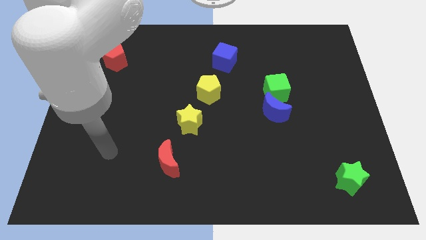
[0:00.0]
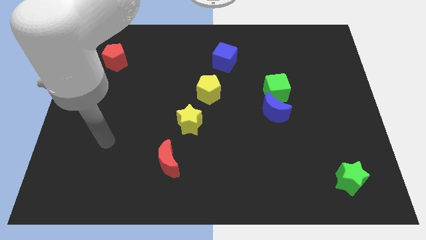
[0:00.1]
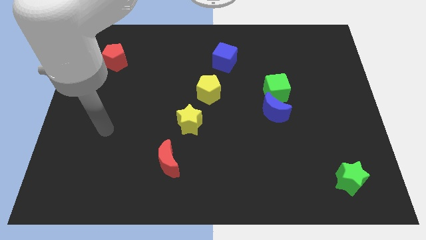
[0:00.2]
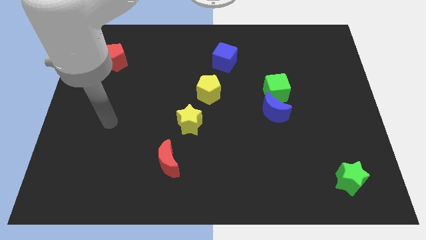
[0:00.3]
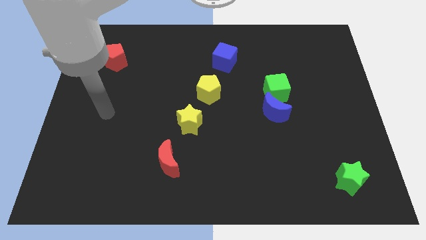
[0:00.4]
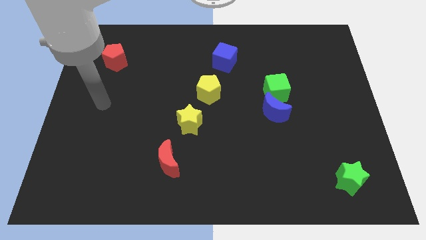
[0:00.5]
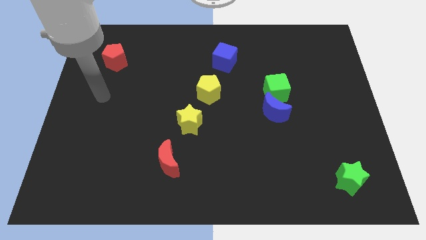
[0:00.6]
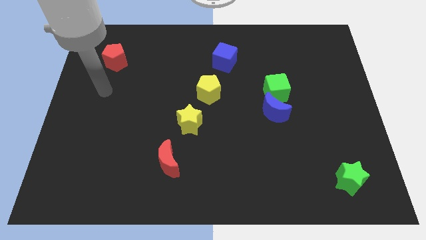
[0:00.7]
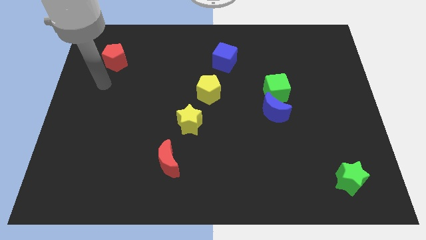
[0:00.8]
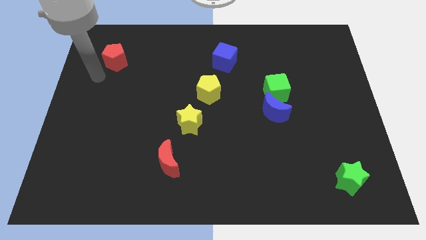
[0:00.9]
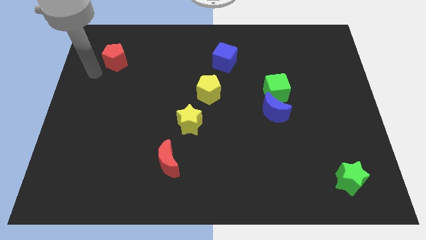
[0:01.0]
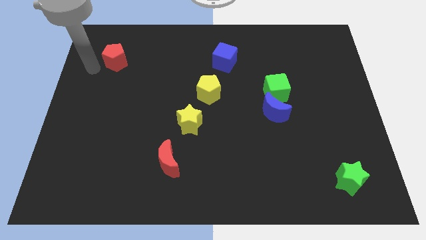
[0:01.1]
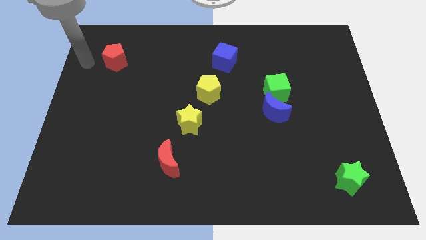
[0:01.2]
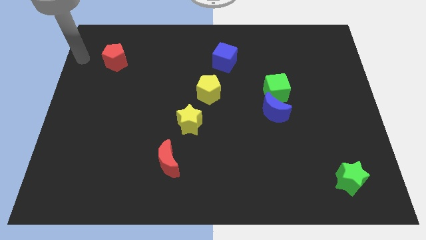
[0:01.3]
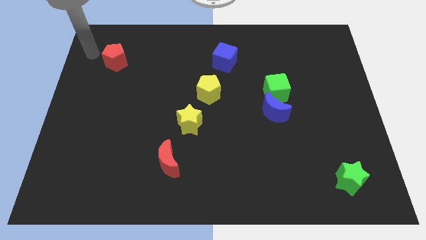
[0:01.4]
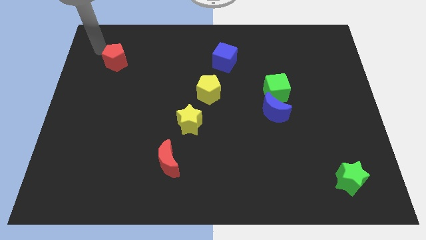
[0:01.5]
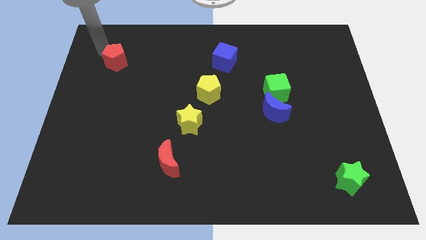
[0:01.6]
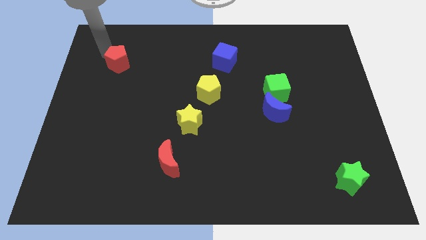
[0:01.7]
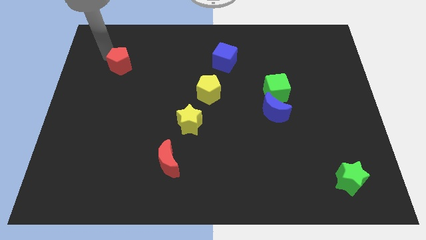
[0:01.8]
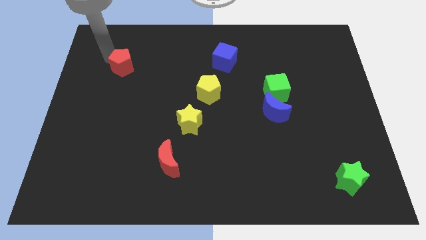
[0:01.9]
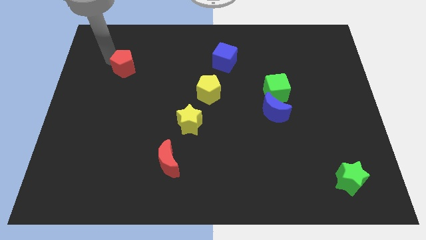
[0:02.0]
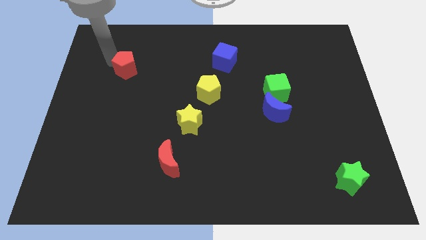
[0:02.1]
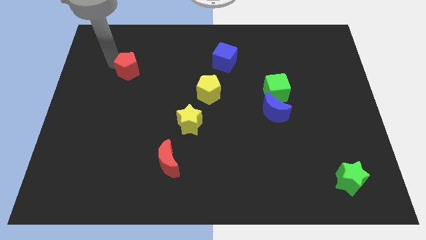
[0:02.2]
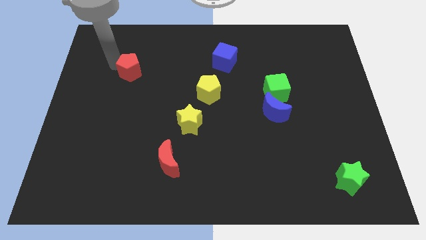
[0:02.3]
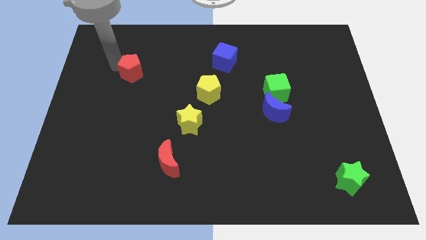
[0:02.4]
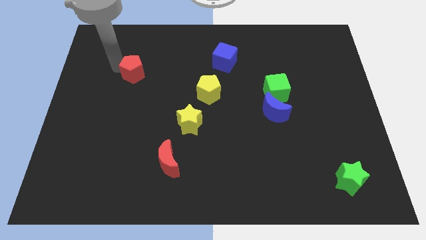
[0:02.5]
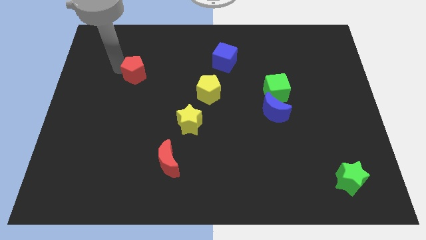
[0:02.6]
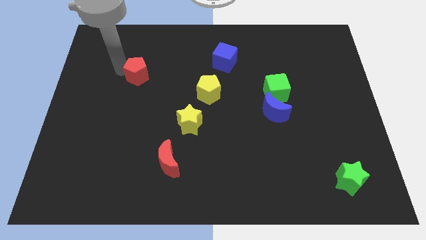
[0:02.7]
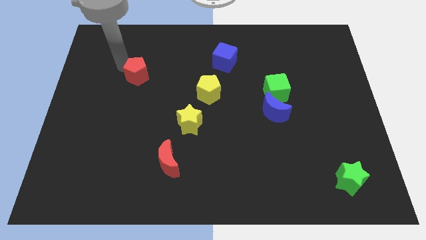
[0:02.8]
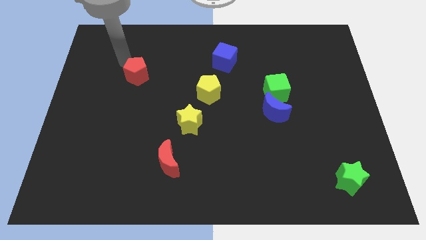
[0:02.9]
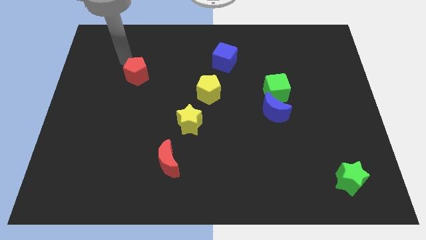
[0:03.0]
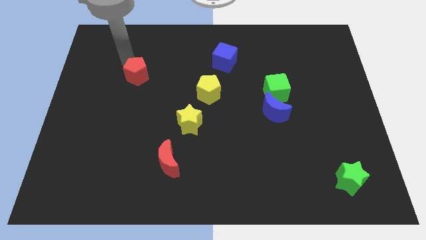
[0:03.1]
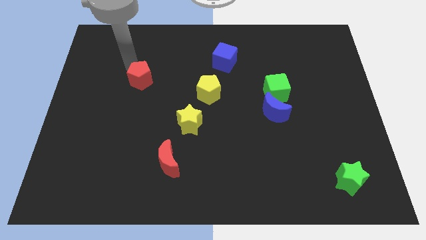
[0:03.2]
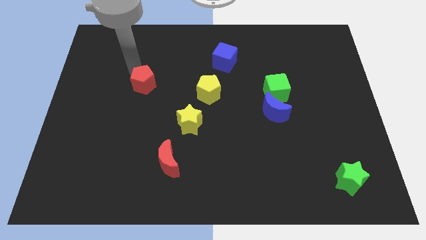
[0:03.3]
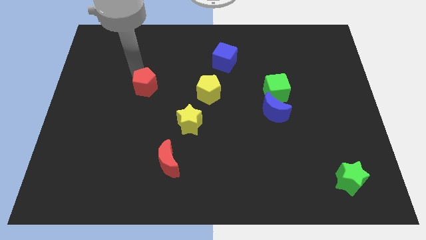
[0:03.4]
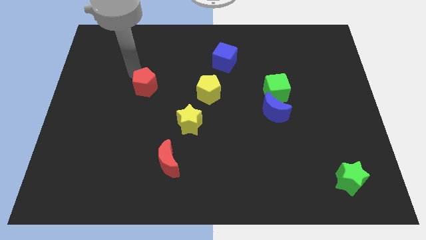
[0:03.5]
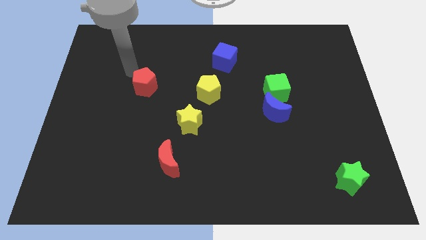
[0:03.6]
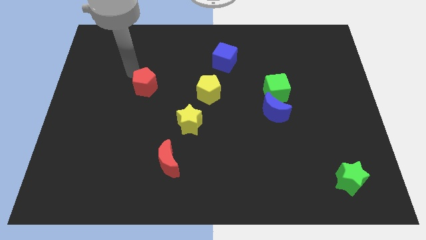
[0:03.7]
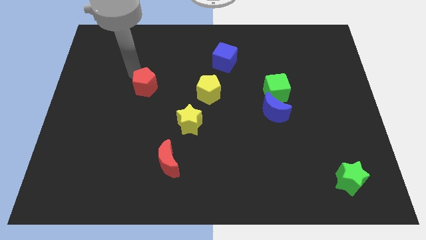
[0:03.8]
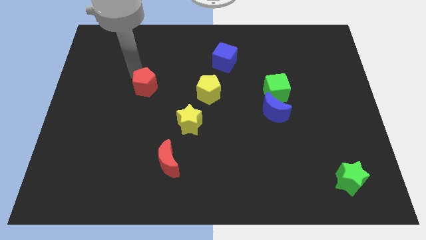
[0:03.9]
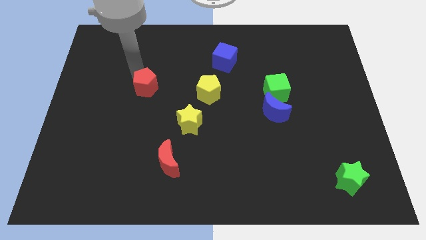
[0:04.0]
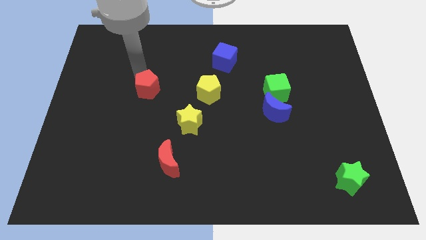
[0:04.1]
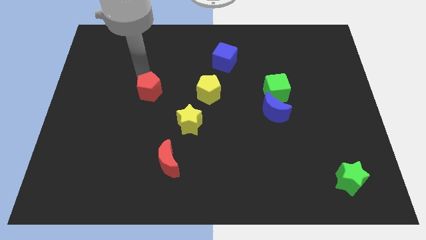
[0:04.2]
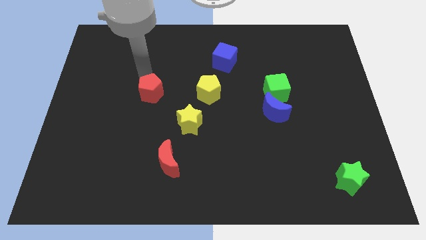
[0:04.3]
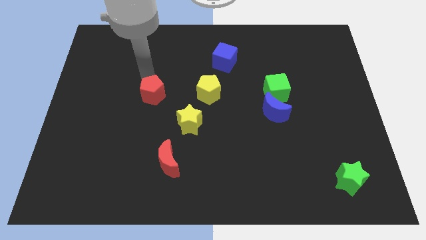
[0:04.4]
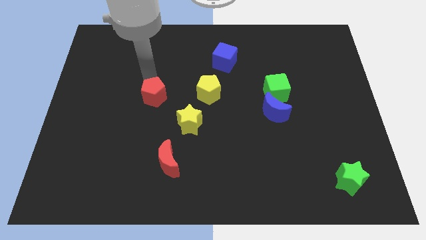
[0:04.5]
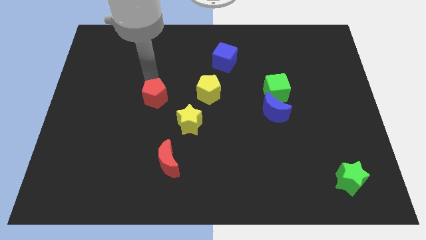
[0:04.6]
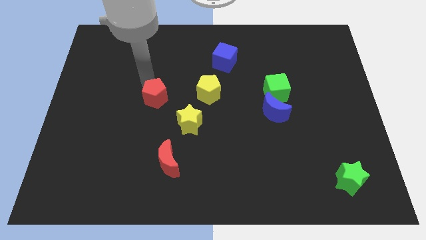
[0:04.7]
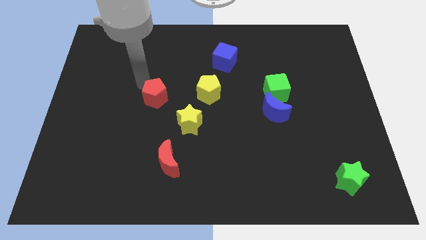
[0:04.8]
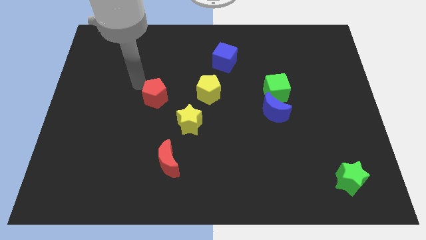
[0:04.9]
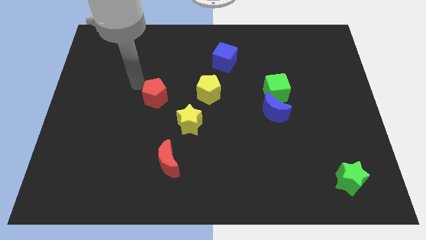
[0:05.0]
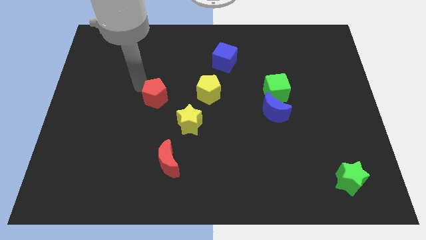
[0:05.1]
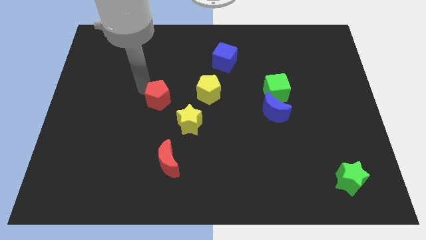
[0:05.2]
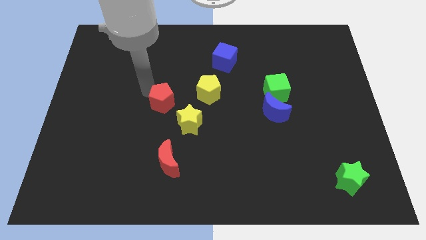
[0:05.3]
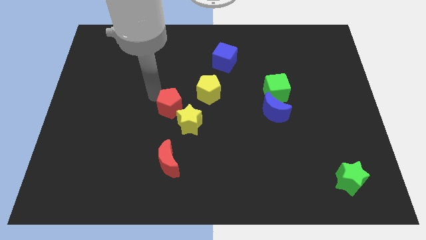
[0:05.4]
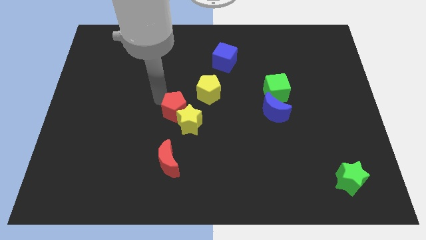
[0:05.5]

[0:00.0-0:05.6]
slide the red pentagon next to the yellow star

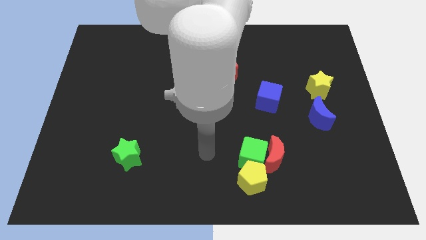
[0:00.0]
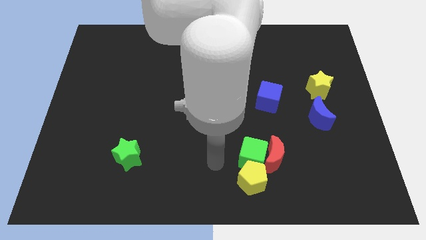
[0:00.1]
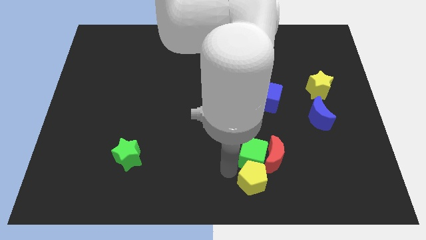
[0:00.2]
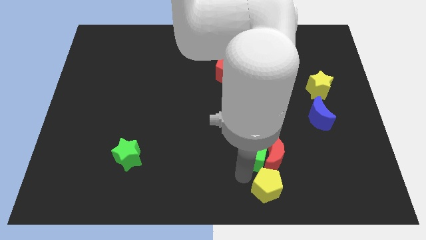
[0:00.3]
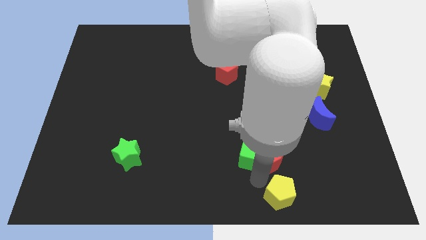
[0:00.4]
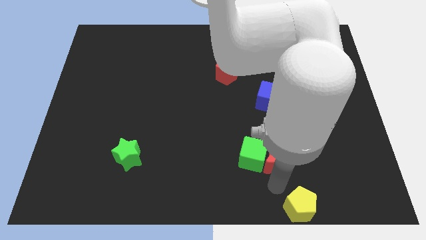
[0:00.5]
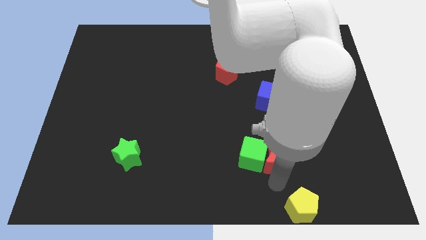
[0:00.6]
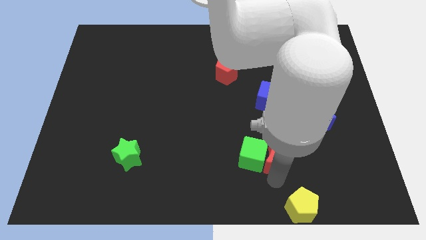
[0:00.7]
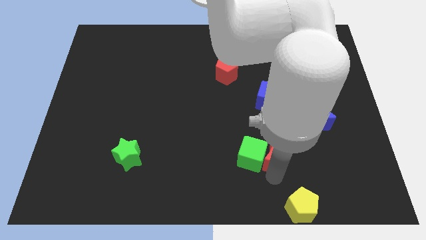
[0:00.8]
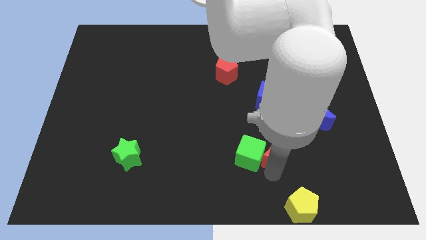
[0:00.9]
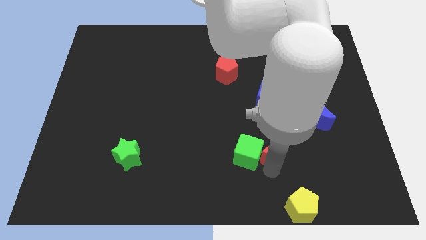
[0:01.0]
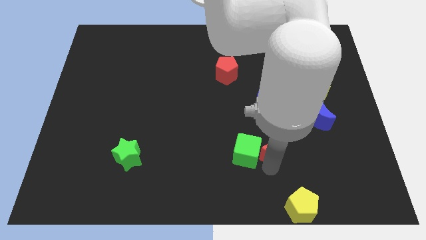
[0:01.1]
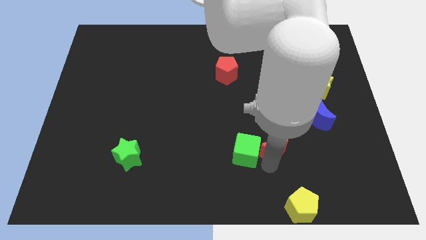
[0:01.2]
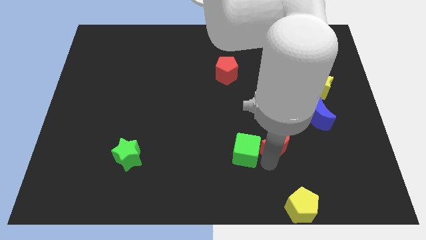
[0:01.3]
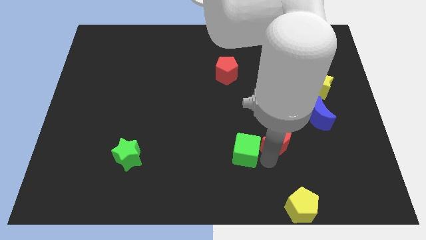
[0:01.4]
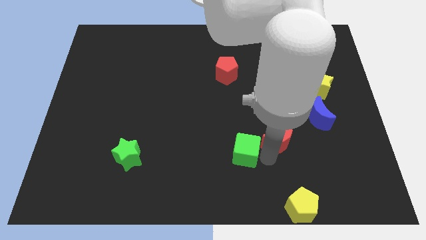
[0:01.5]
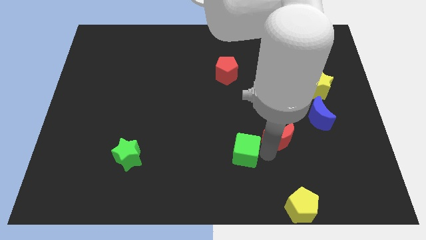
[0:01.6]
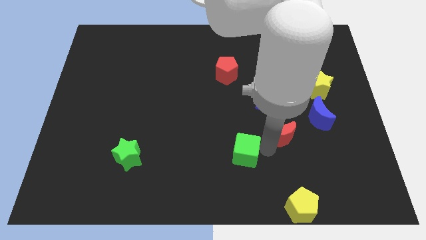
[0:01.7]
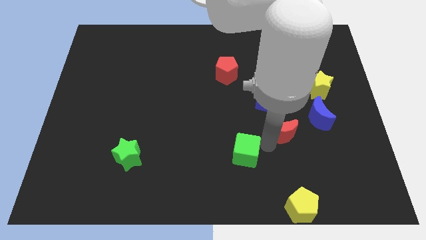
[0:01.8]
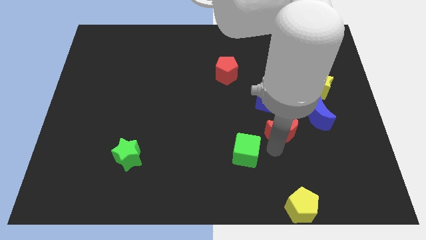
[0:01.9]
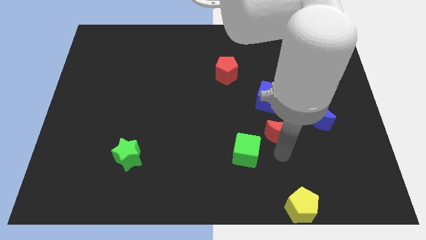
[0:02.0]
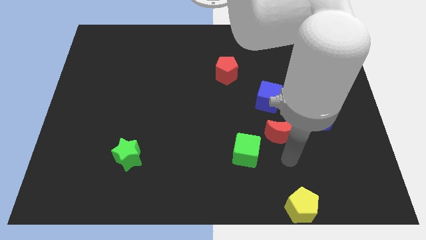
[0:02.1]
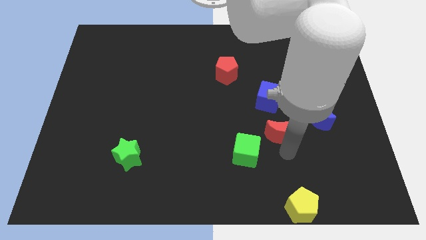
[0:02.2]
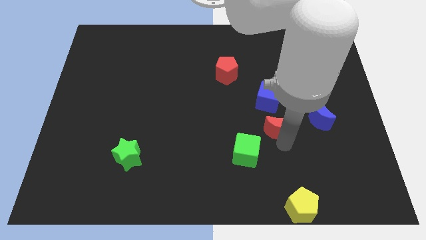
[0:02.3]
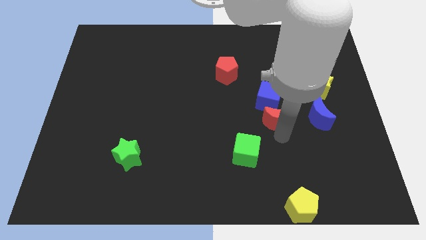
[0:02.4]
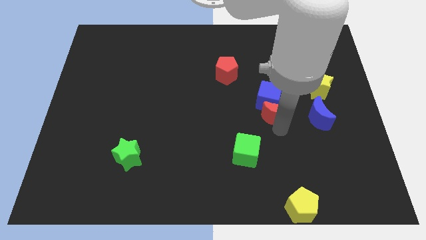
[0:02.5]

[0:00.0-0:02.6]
move the red moon next to the blue cube
